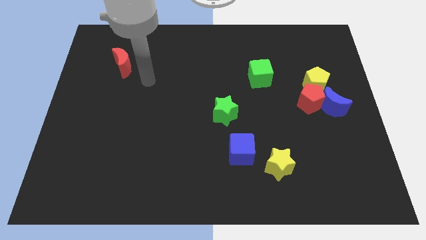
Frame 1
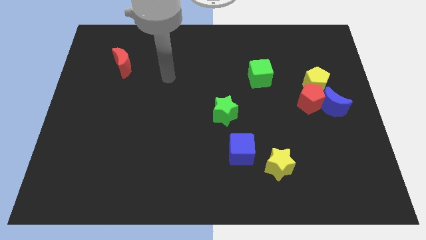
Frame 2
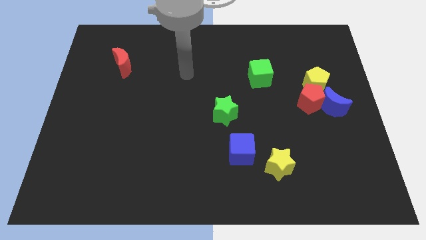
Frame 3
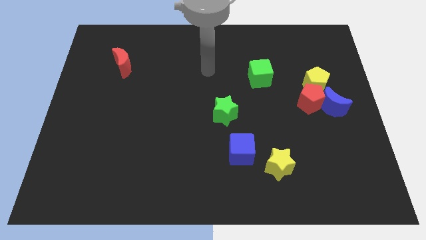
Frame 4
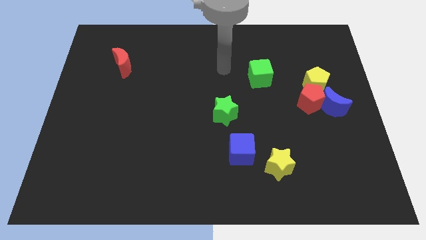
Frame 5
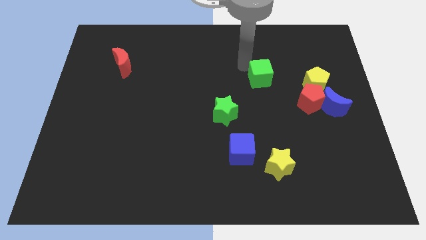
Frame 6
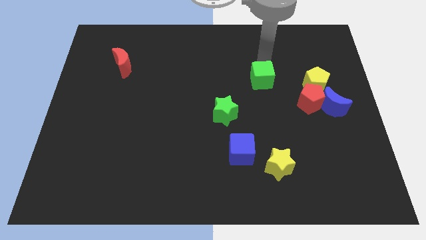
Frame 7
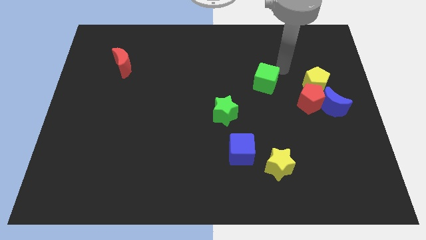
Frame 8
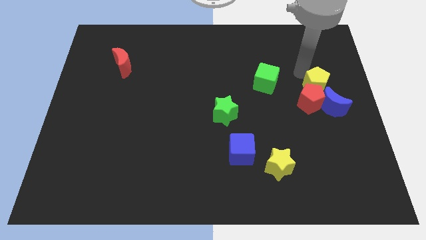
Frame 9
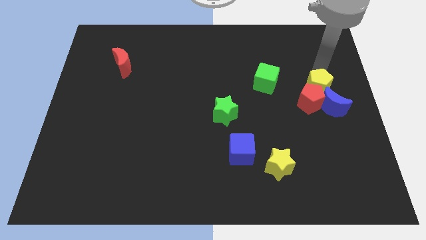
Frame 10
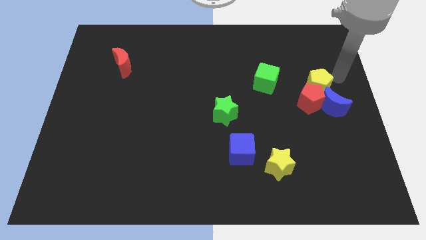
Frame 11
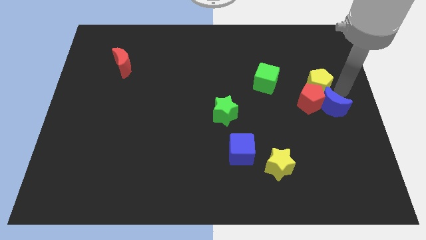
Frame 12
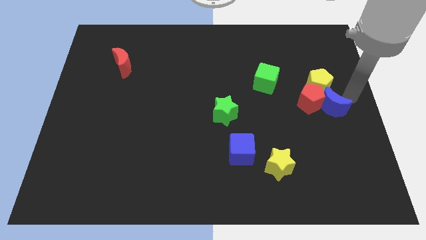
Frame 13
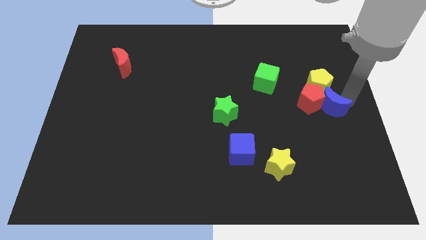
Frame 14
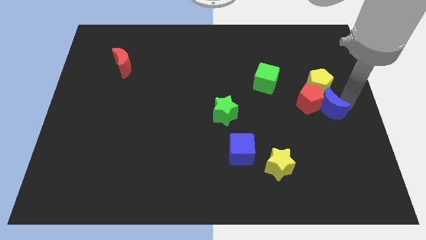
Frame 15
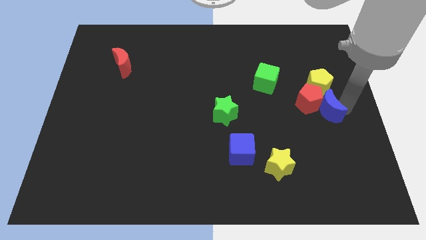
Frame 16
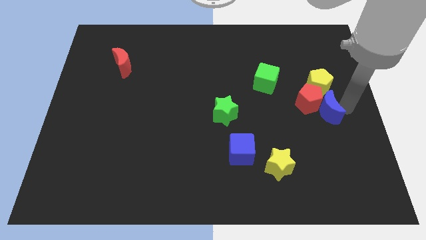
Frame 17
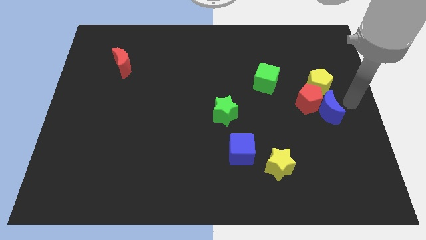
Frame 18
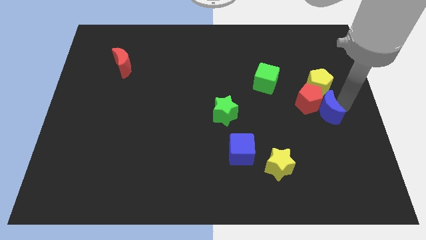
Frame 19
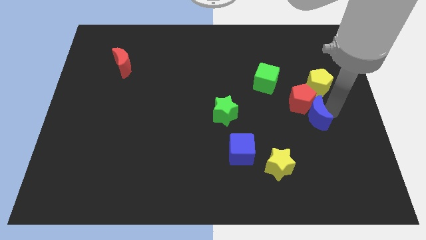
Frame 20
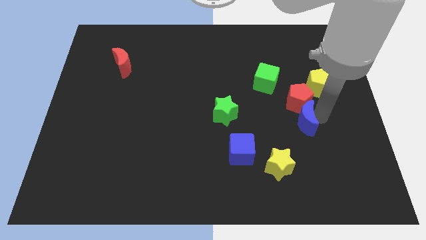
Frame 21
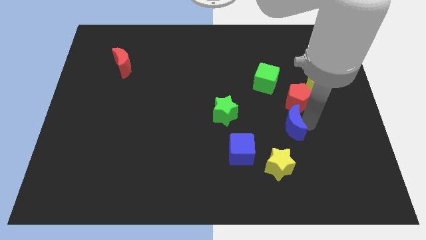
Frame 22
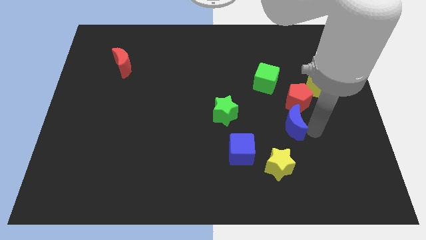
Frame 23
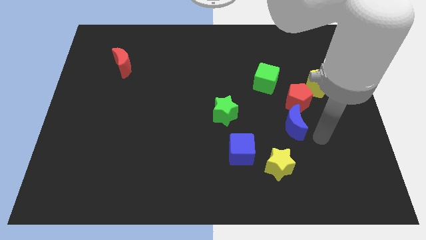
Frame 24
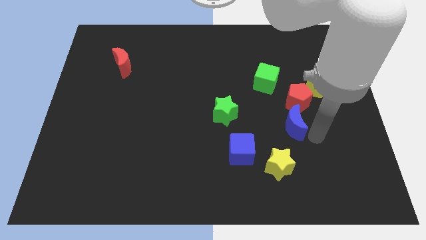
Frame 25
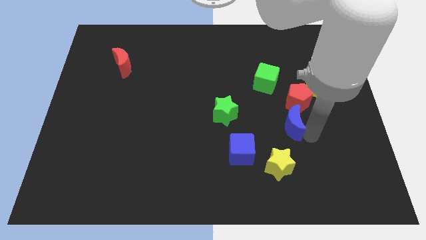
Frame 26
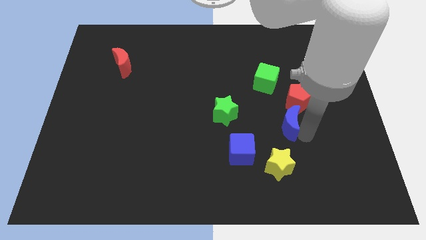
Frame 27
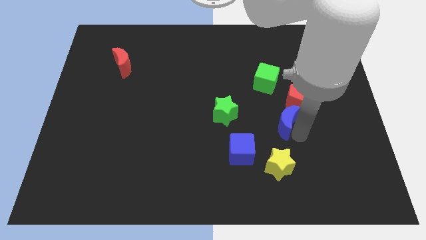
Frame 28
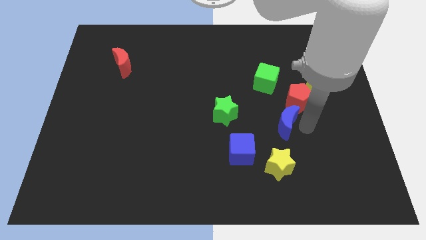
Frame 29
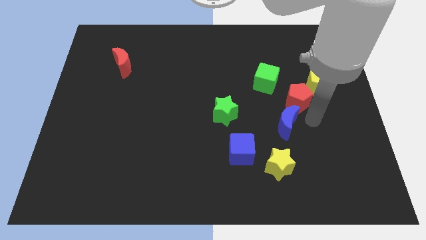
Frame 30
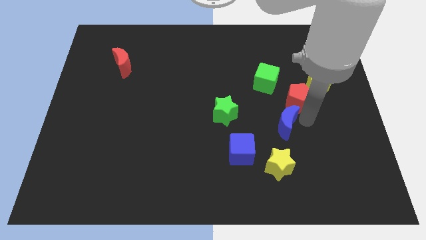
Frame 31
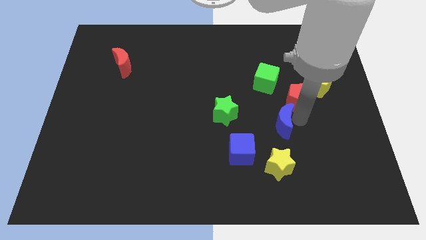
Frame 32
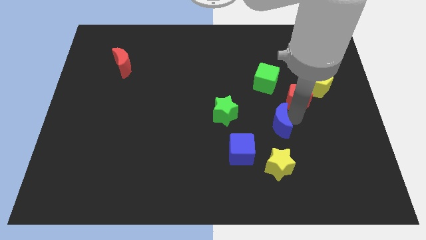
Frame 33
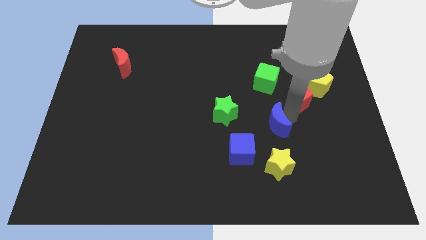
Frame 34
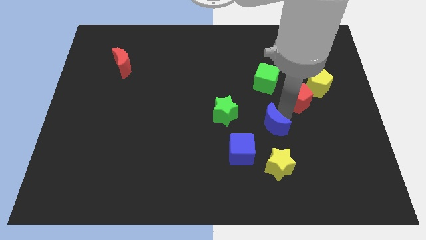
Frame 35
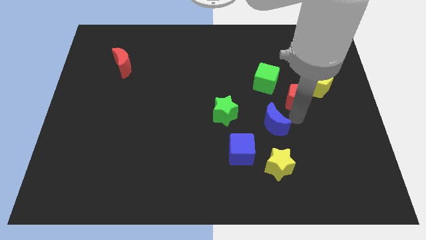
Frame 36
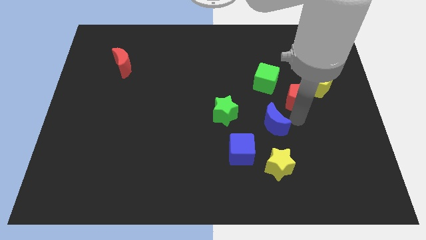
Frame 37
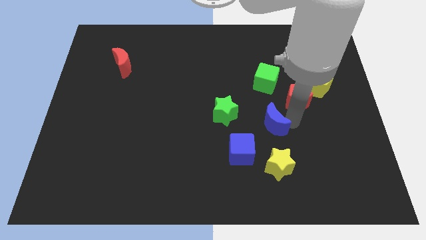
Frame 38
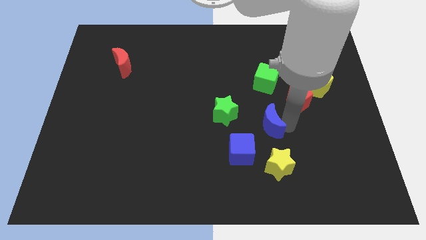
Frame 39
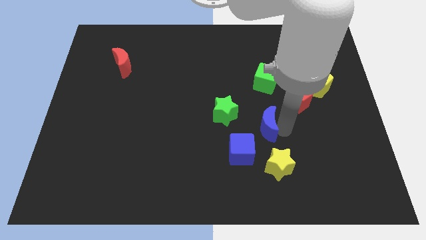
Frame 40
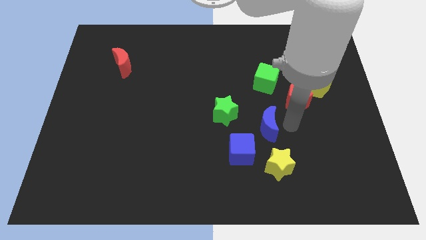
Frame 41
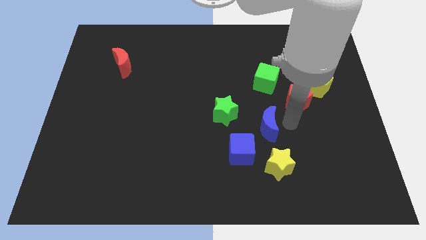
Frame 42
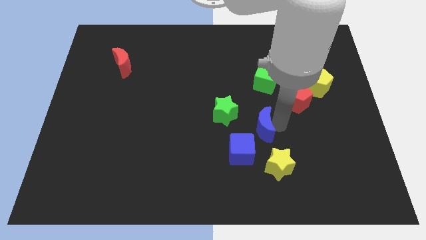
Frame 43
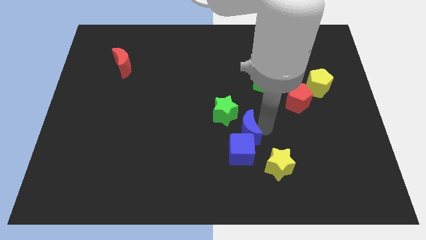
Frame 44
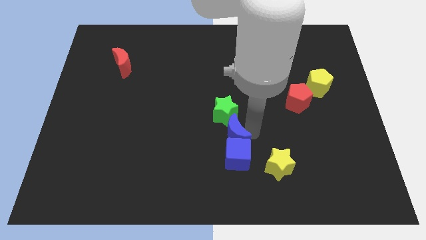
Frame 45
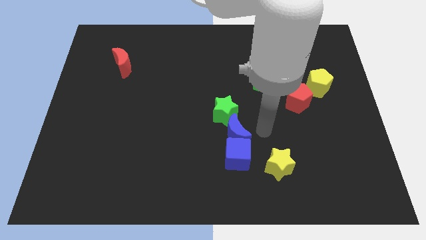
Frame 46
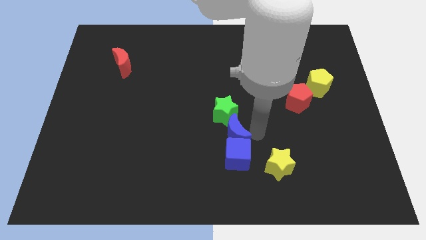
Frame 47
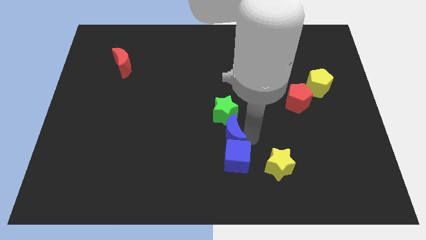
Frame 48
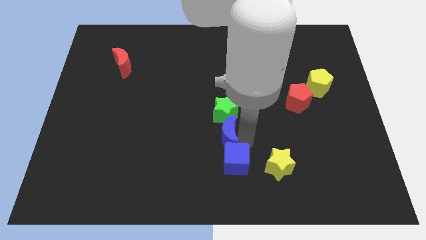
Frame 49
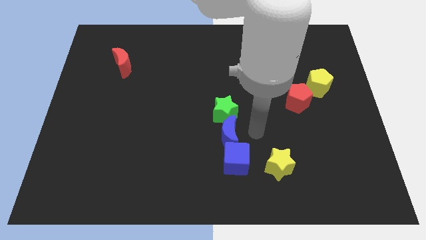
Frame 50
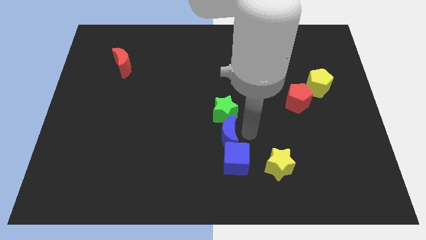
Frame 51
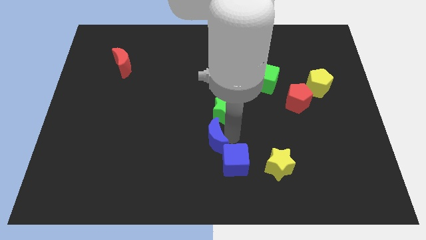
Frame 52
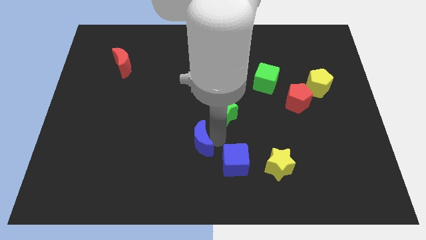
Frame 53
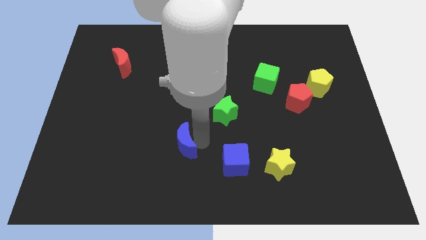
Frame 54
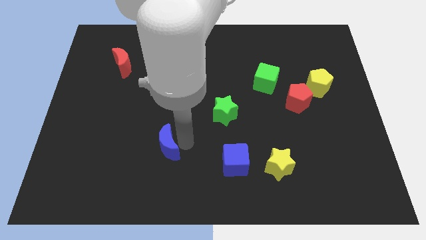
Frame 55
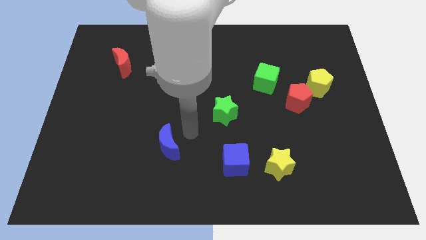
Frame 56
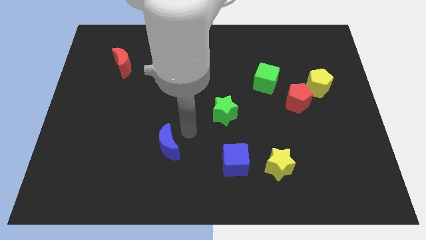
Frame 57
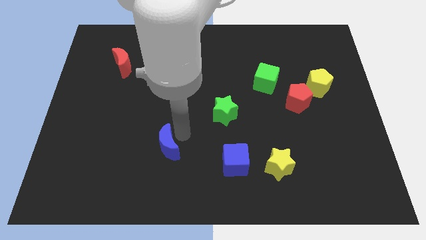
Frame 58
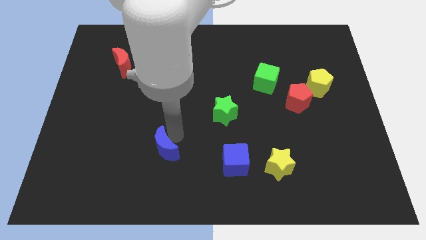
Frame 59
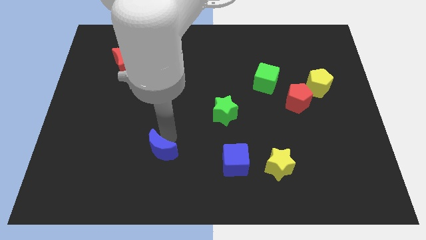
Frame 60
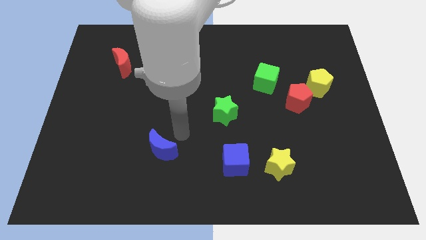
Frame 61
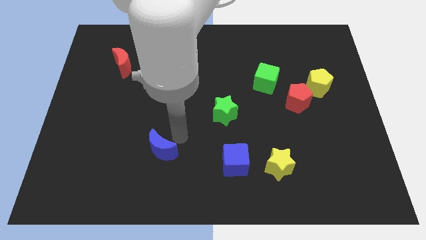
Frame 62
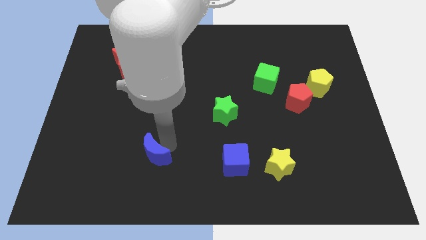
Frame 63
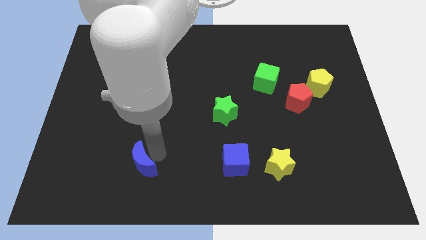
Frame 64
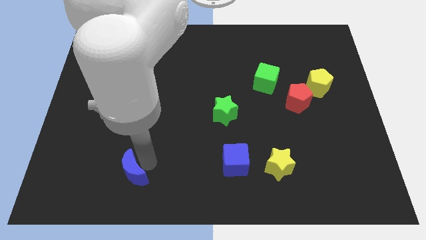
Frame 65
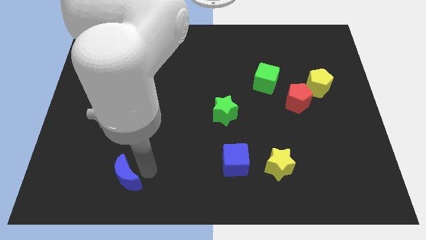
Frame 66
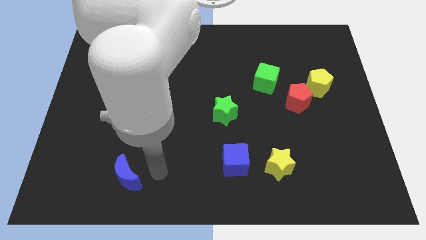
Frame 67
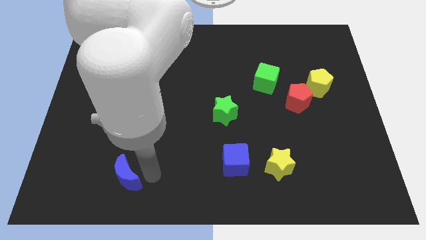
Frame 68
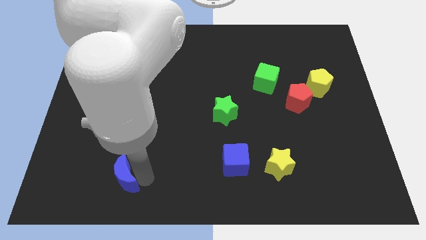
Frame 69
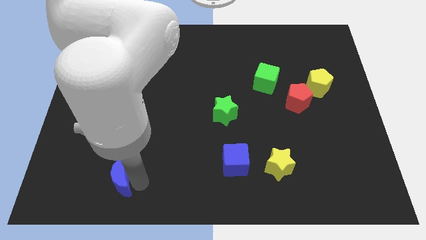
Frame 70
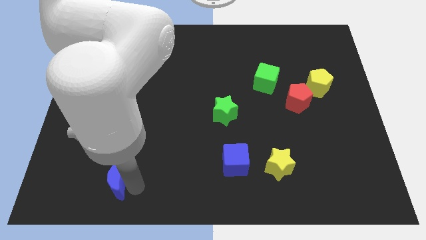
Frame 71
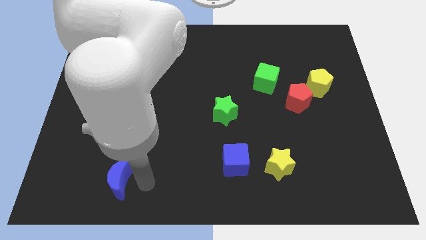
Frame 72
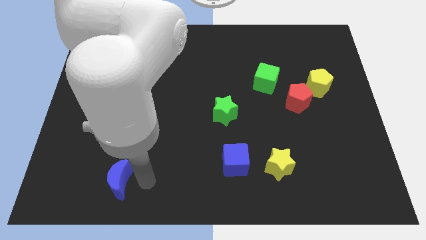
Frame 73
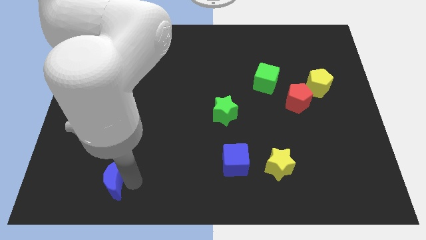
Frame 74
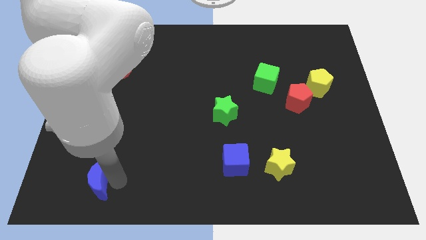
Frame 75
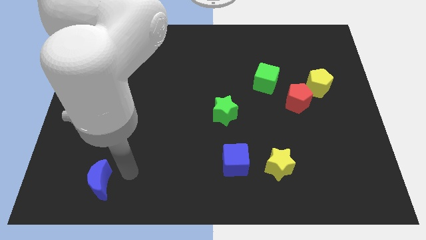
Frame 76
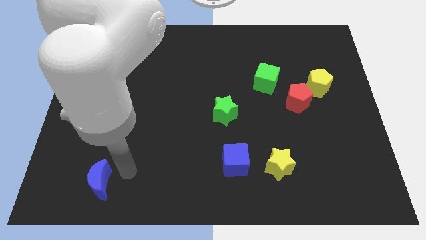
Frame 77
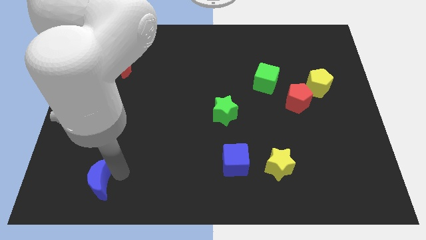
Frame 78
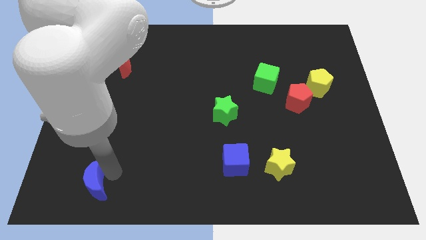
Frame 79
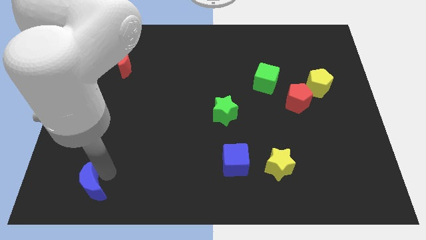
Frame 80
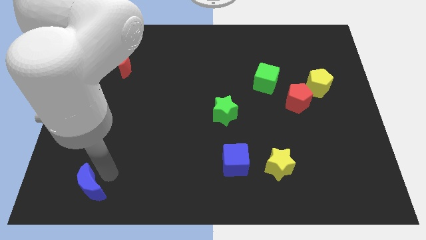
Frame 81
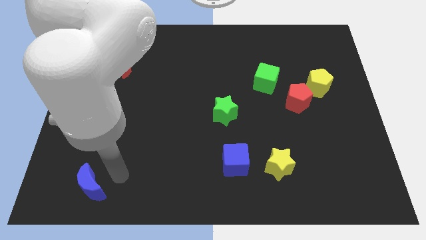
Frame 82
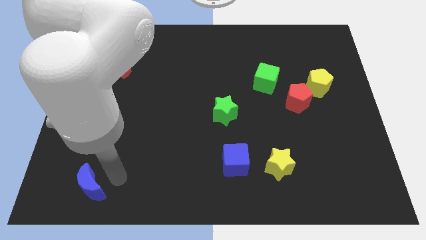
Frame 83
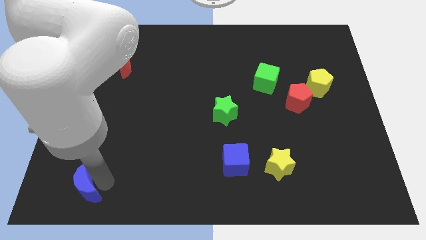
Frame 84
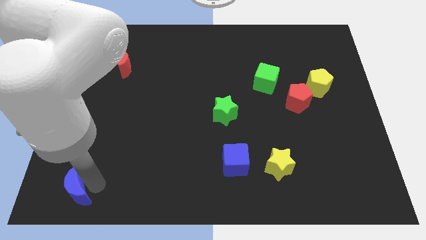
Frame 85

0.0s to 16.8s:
put the blue moon to the bottom left
